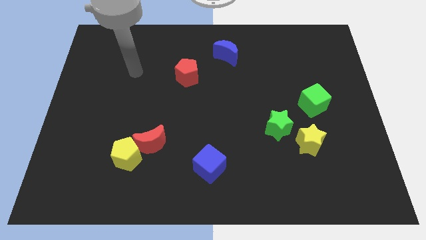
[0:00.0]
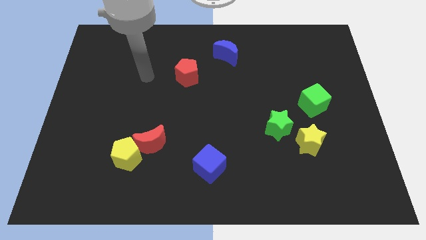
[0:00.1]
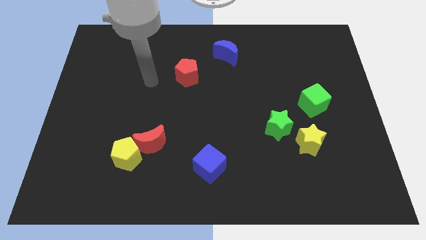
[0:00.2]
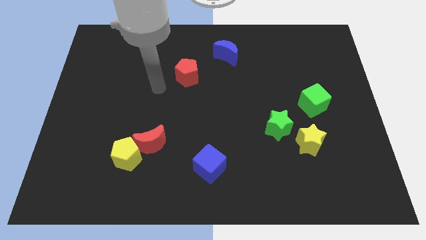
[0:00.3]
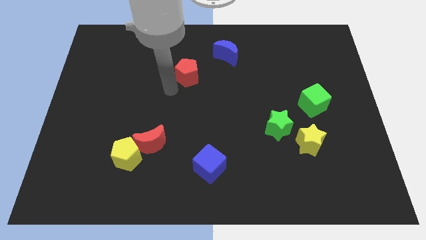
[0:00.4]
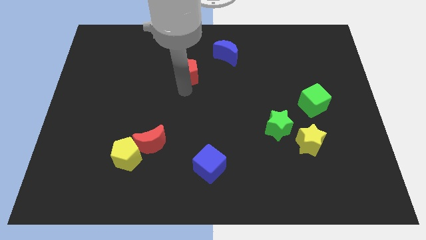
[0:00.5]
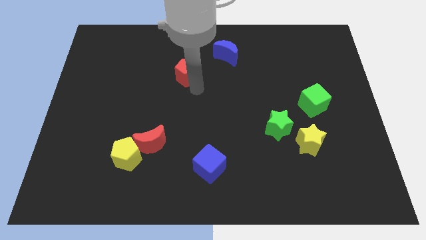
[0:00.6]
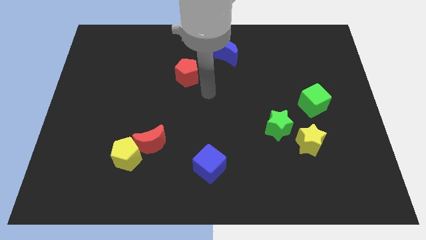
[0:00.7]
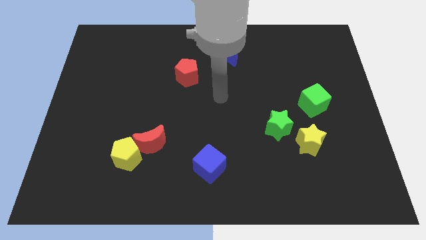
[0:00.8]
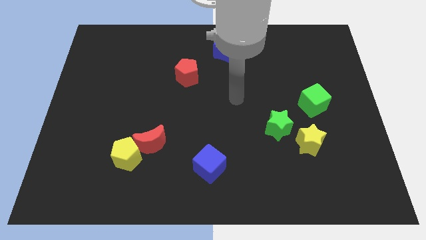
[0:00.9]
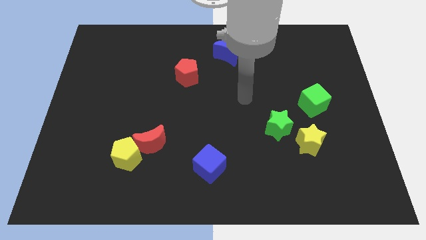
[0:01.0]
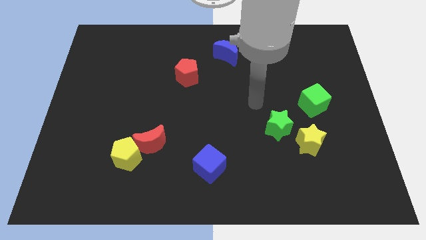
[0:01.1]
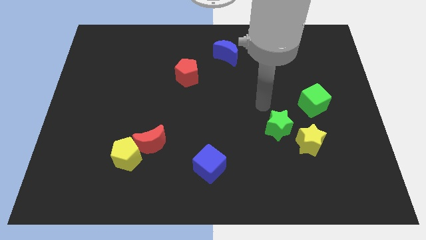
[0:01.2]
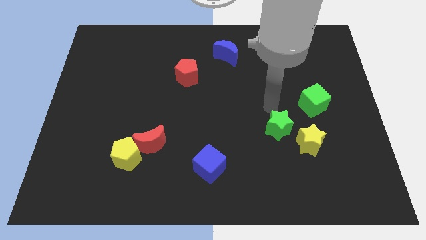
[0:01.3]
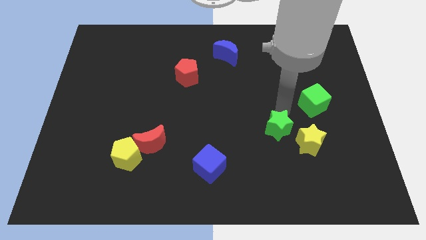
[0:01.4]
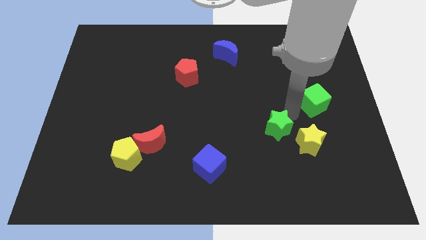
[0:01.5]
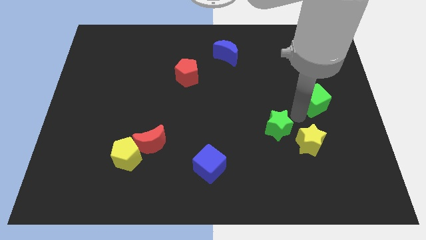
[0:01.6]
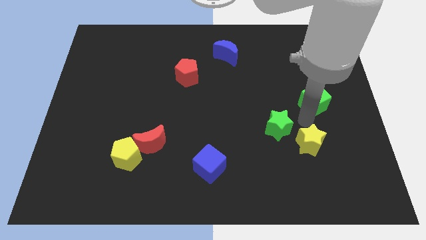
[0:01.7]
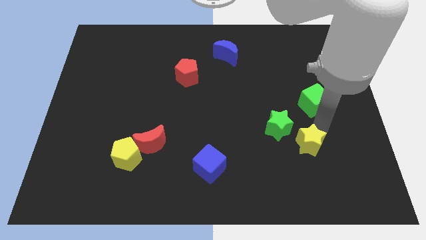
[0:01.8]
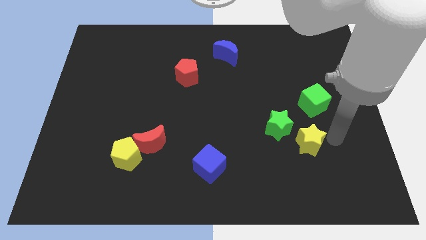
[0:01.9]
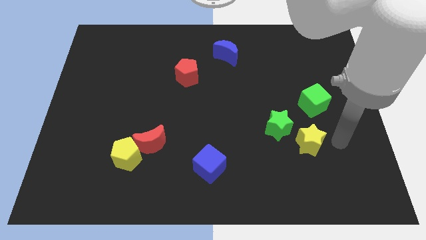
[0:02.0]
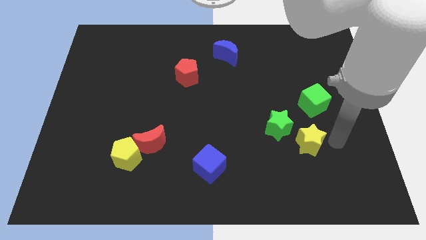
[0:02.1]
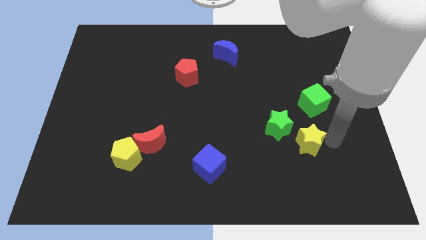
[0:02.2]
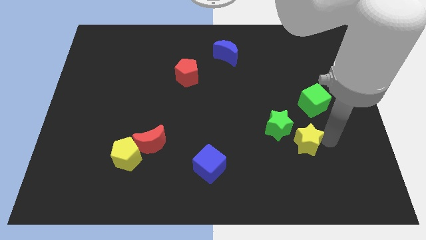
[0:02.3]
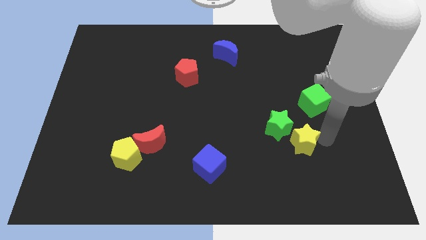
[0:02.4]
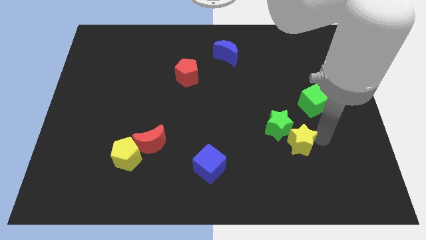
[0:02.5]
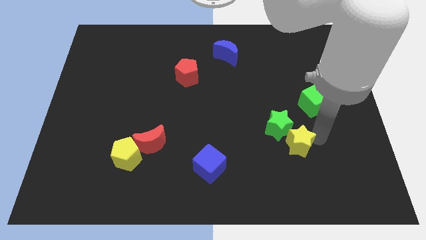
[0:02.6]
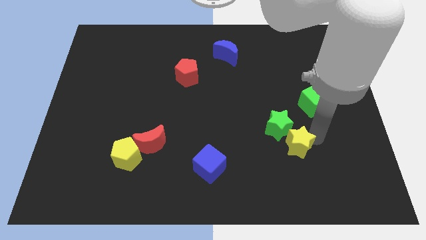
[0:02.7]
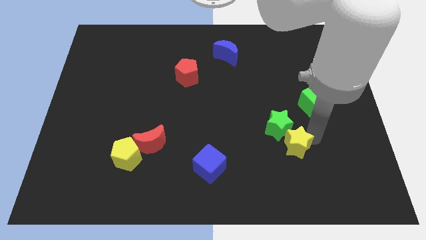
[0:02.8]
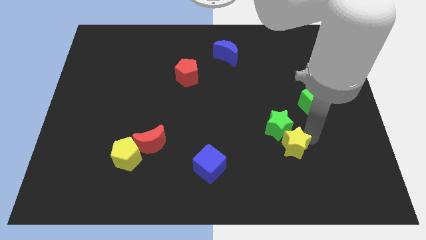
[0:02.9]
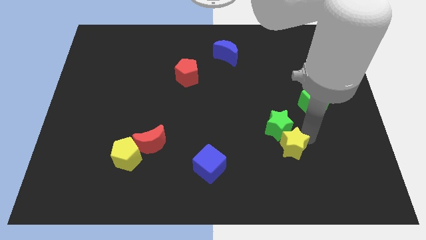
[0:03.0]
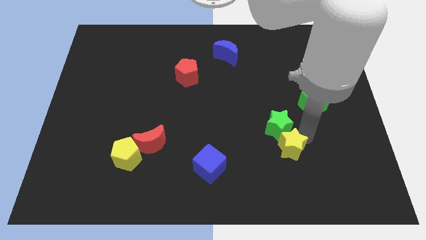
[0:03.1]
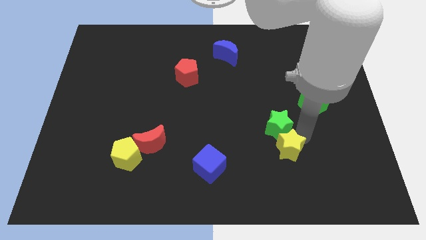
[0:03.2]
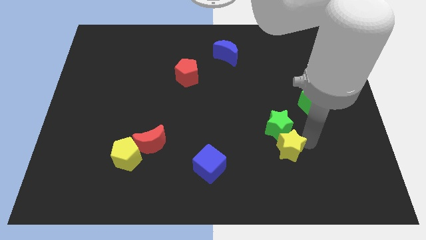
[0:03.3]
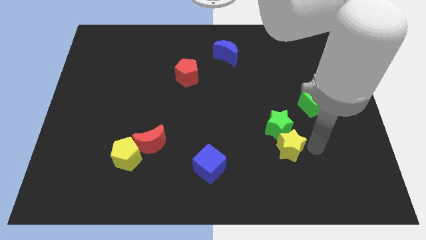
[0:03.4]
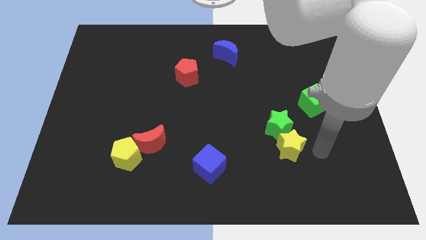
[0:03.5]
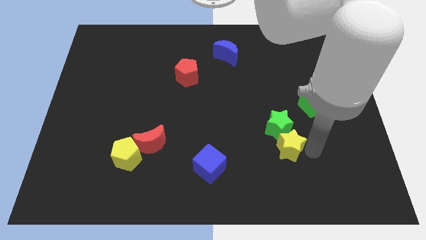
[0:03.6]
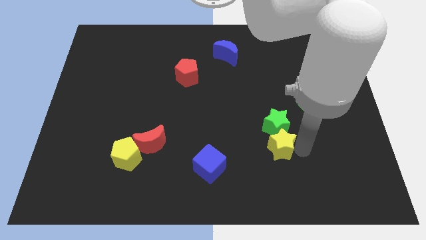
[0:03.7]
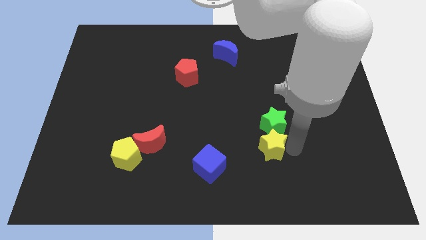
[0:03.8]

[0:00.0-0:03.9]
slide the yellow star slightly left

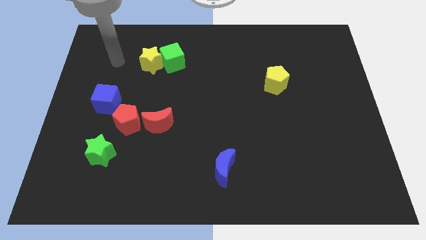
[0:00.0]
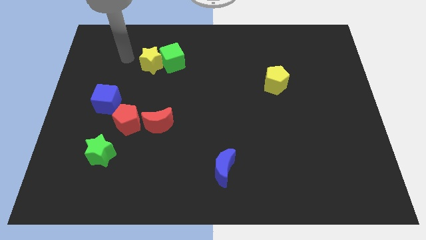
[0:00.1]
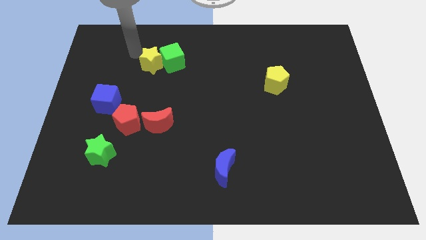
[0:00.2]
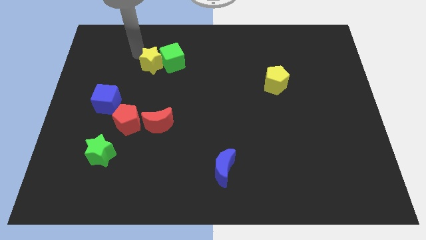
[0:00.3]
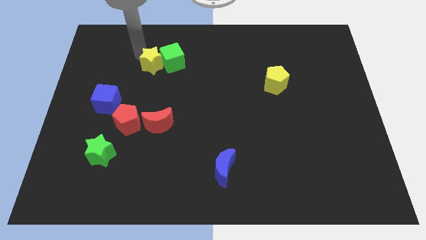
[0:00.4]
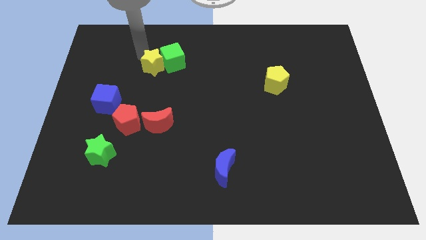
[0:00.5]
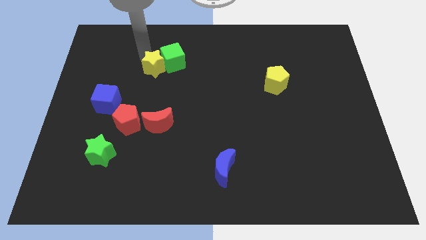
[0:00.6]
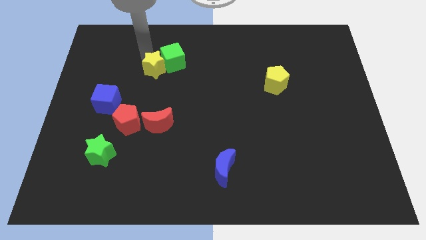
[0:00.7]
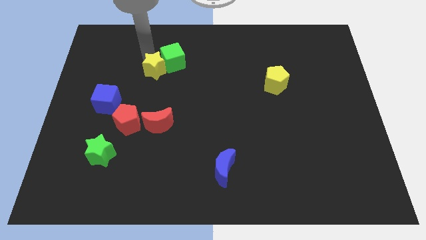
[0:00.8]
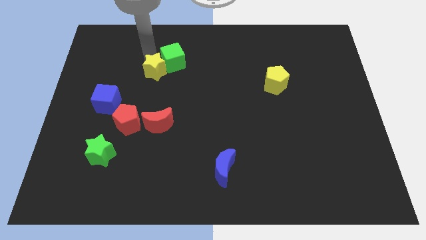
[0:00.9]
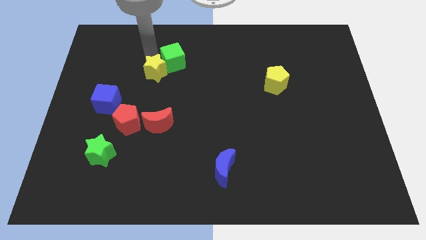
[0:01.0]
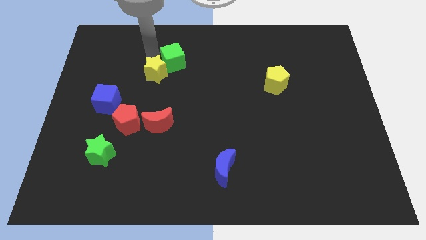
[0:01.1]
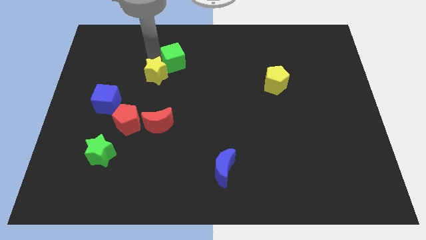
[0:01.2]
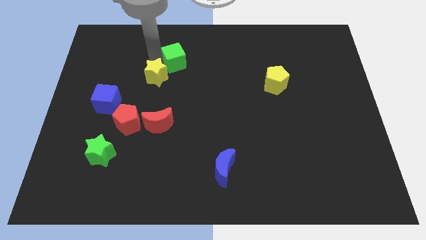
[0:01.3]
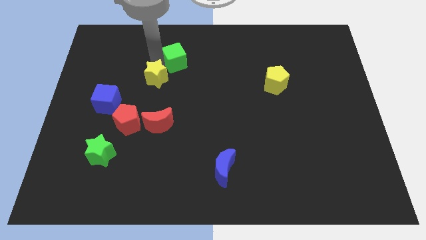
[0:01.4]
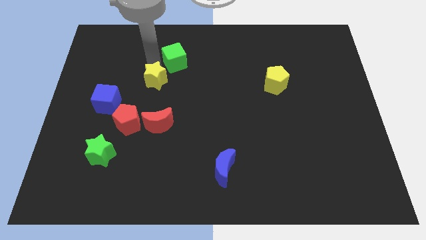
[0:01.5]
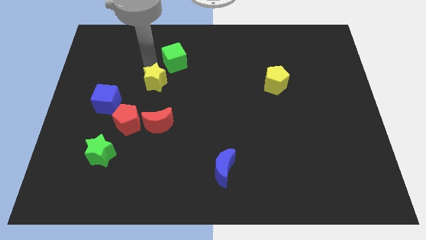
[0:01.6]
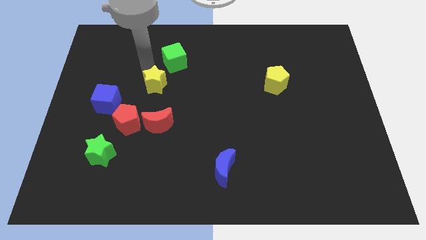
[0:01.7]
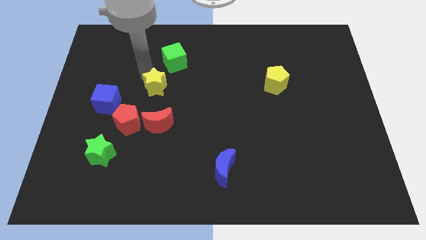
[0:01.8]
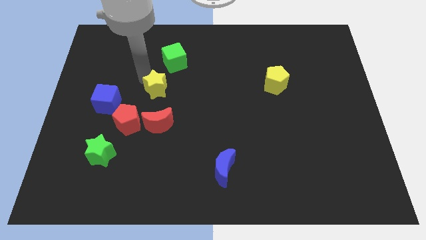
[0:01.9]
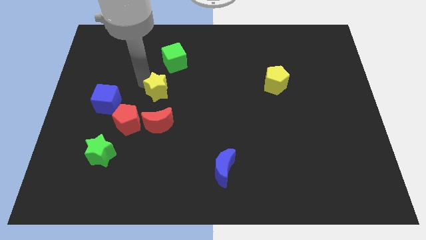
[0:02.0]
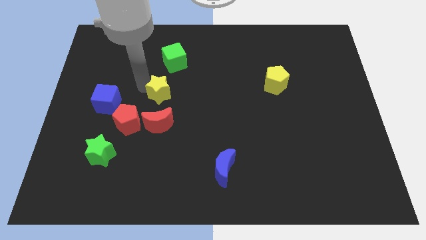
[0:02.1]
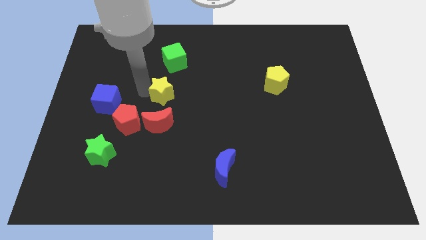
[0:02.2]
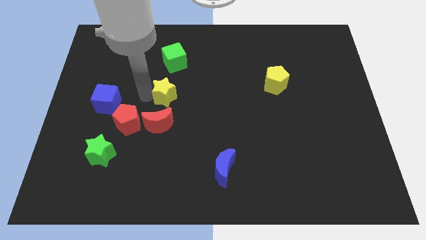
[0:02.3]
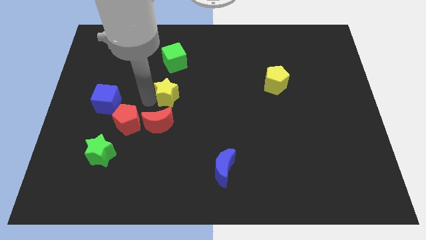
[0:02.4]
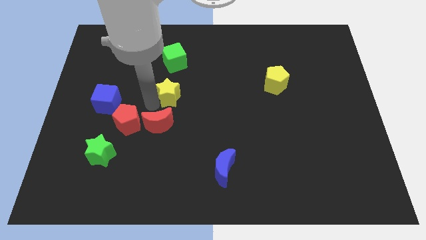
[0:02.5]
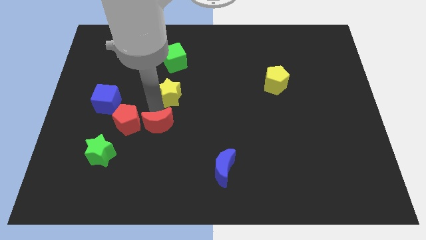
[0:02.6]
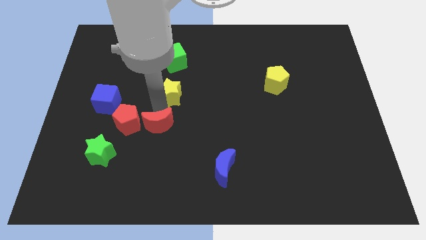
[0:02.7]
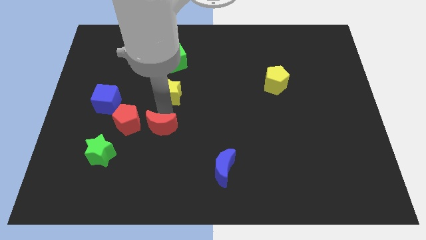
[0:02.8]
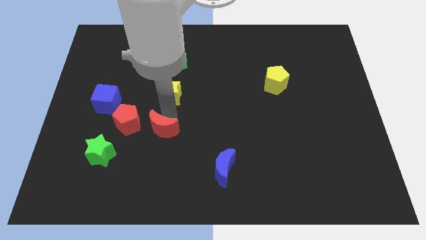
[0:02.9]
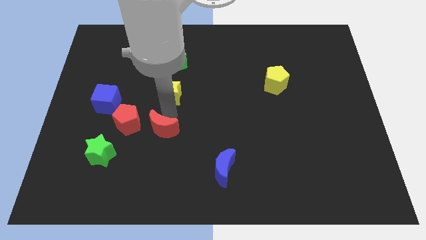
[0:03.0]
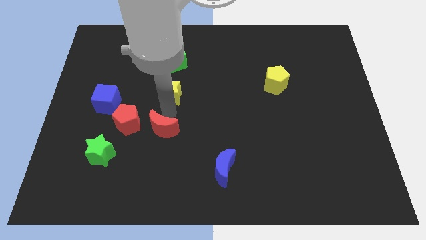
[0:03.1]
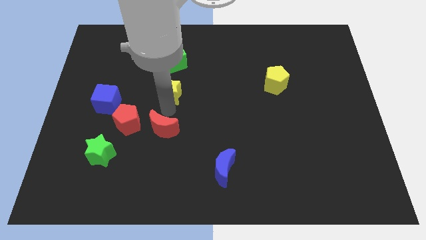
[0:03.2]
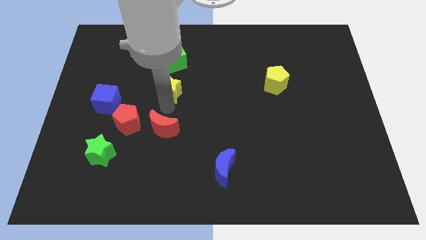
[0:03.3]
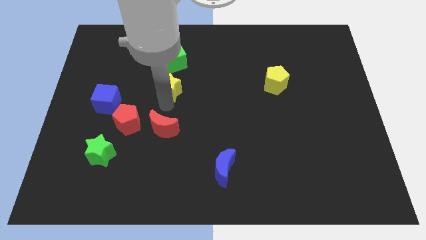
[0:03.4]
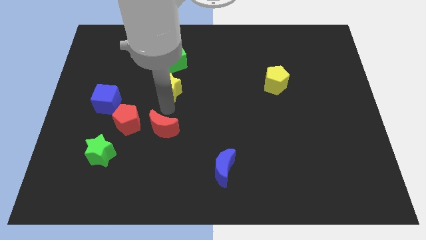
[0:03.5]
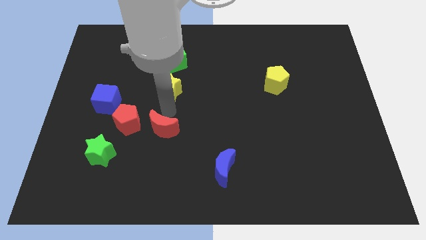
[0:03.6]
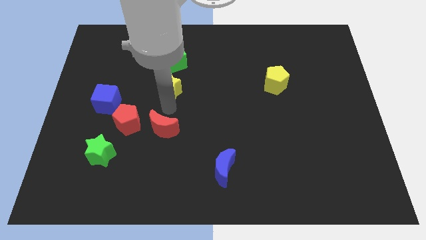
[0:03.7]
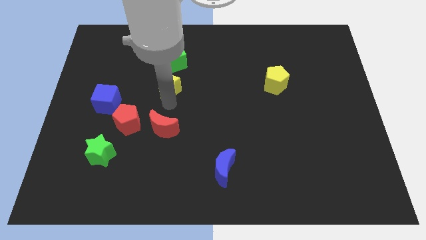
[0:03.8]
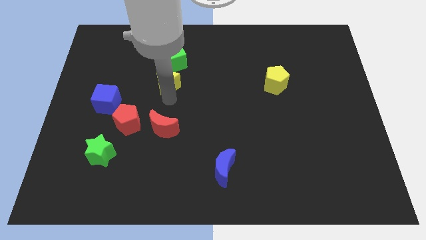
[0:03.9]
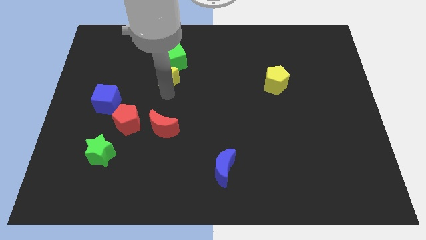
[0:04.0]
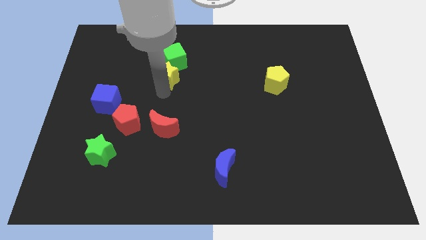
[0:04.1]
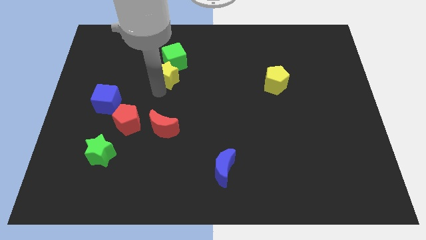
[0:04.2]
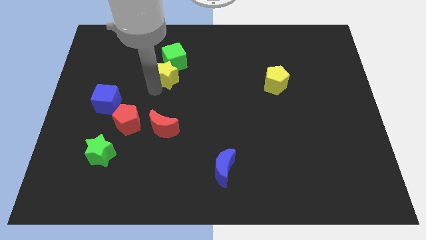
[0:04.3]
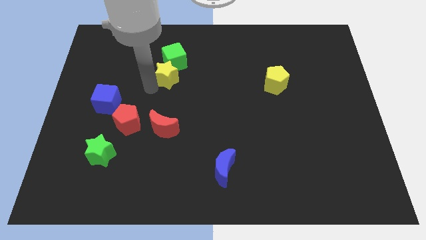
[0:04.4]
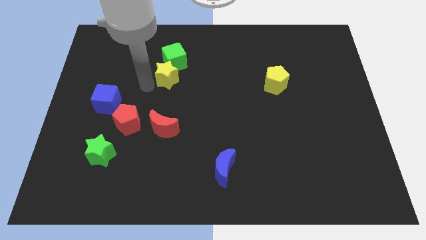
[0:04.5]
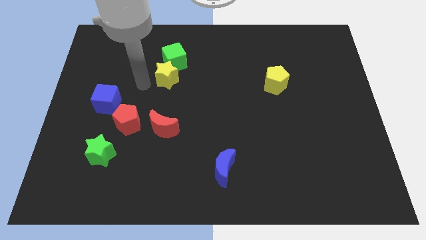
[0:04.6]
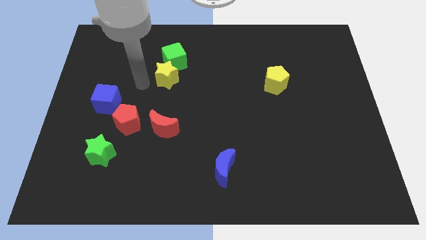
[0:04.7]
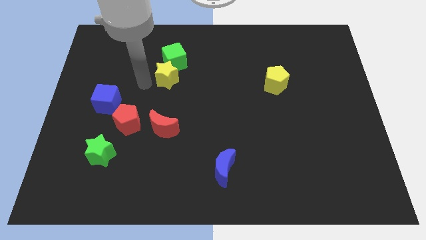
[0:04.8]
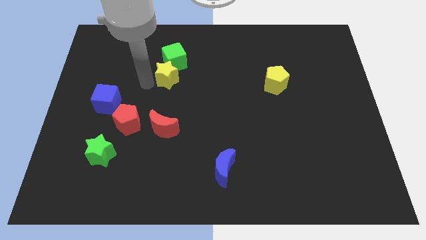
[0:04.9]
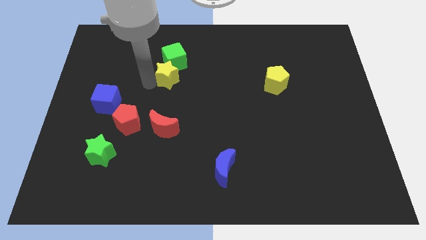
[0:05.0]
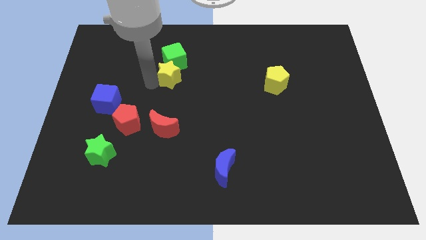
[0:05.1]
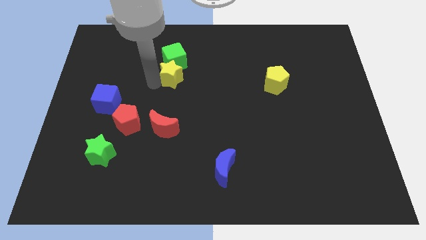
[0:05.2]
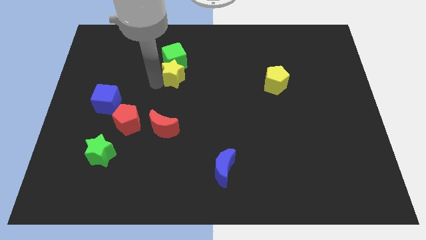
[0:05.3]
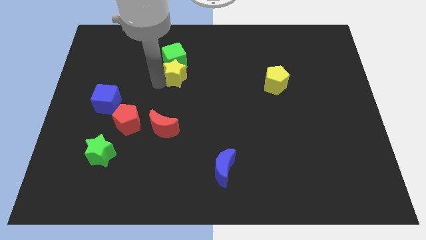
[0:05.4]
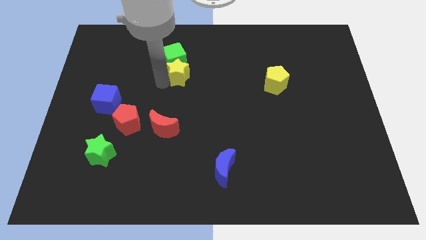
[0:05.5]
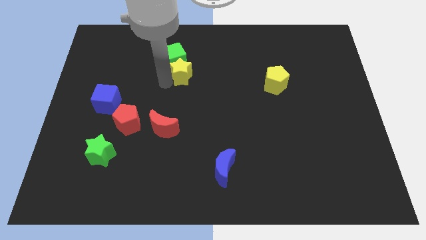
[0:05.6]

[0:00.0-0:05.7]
push the yellow star to the right a little bit
